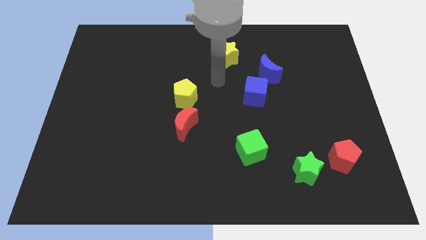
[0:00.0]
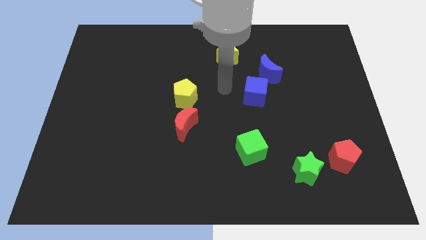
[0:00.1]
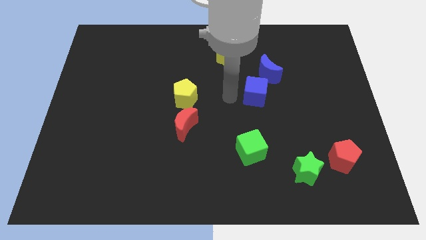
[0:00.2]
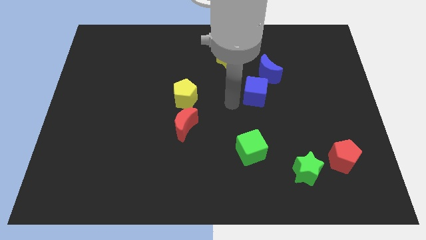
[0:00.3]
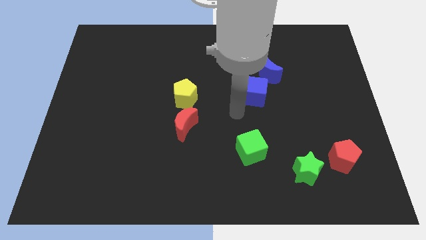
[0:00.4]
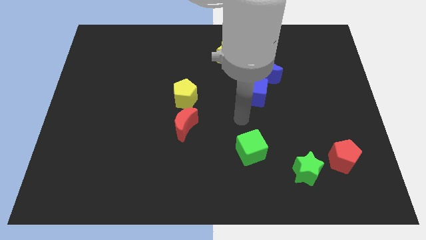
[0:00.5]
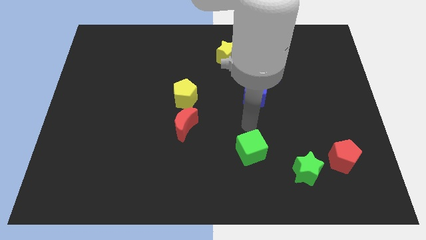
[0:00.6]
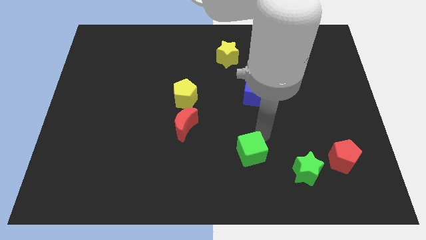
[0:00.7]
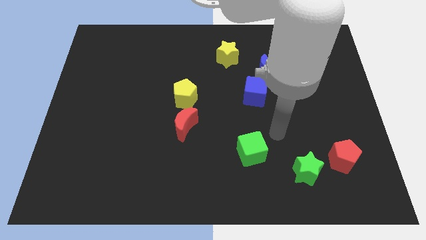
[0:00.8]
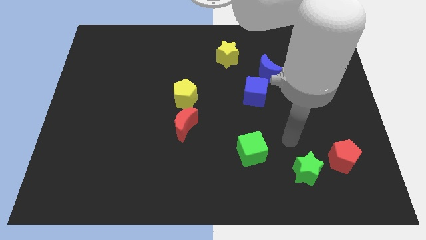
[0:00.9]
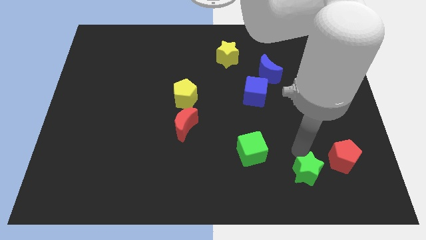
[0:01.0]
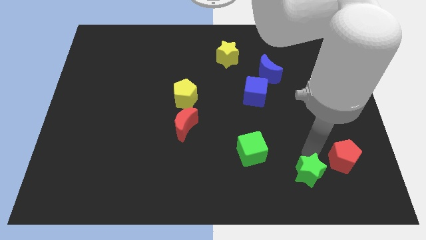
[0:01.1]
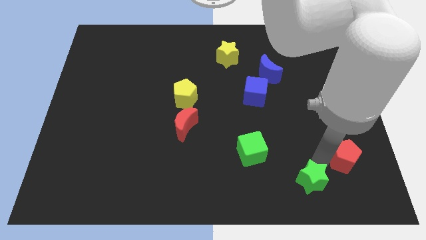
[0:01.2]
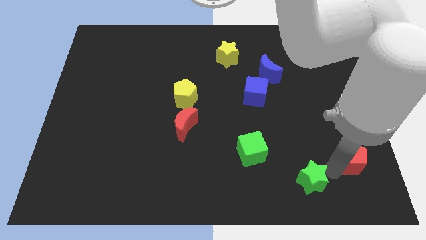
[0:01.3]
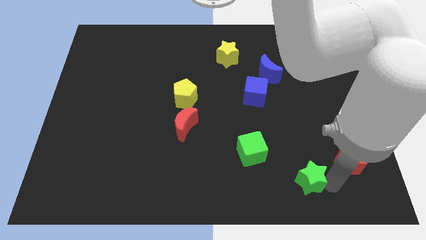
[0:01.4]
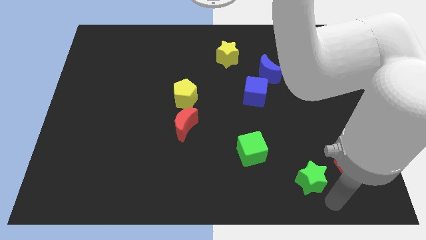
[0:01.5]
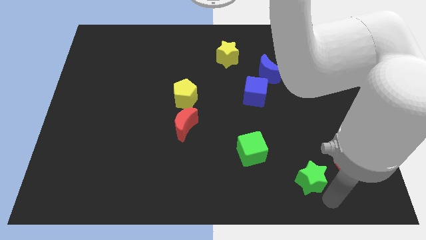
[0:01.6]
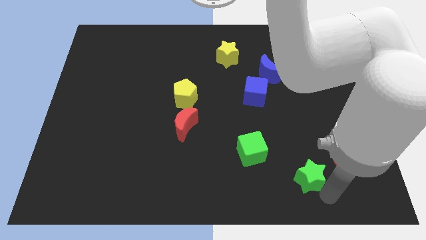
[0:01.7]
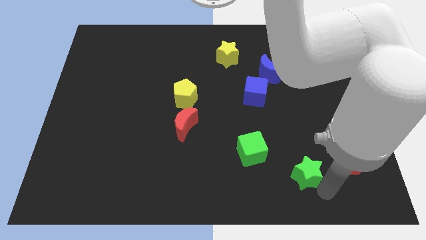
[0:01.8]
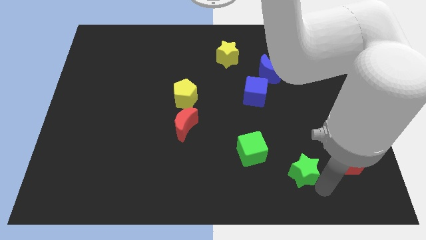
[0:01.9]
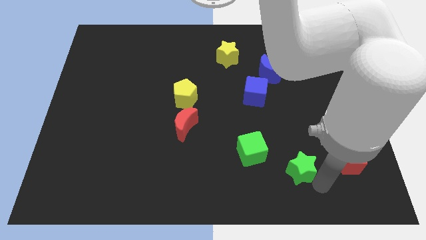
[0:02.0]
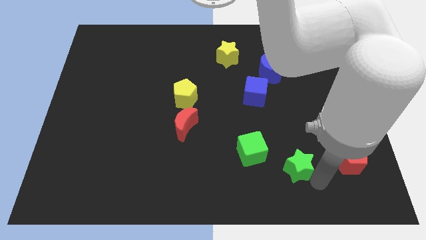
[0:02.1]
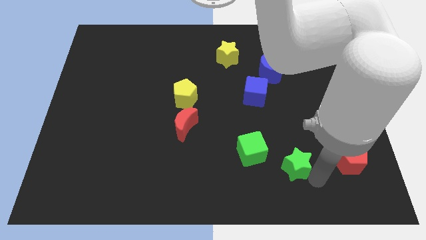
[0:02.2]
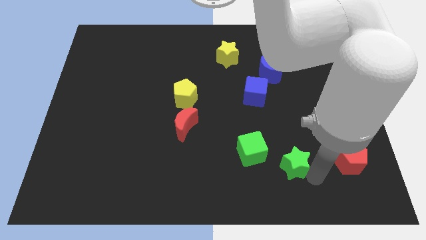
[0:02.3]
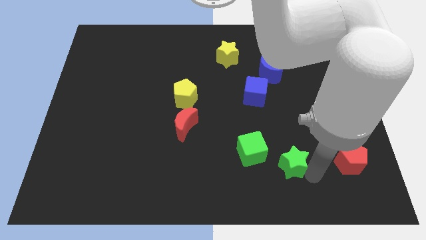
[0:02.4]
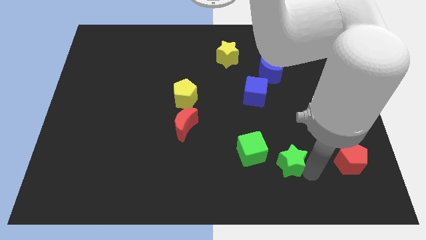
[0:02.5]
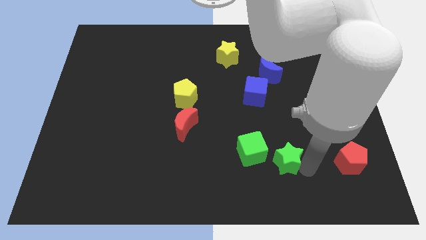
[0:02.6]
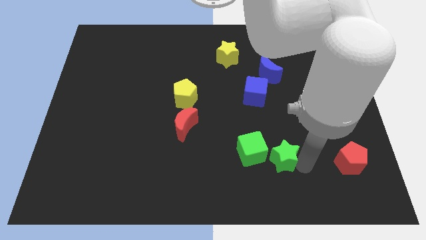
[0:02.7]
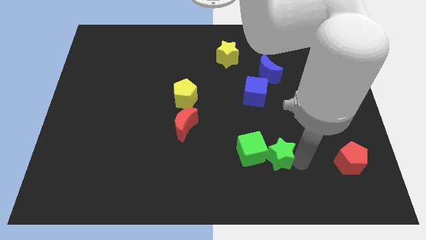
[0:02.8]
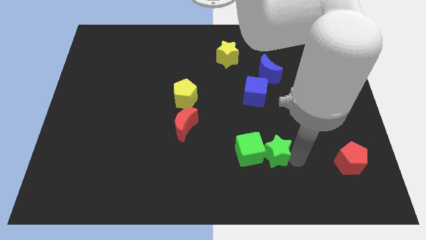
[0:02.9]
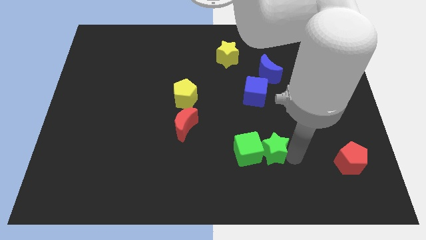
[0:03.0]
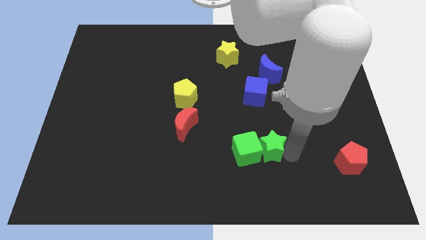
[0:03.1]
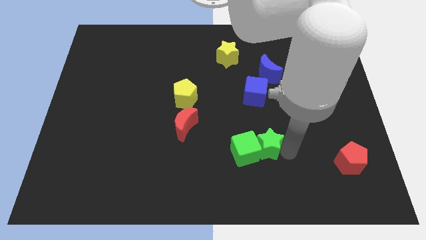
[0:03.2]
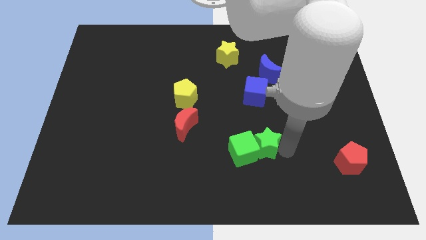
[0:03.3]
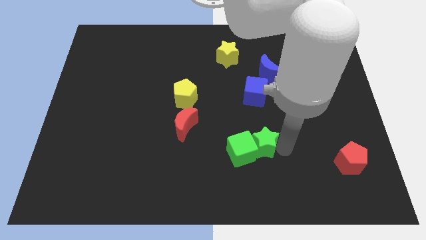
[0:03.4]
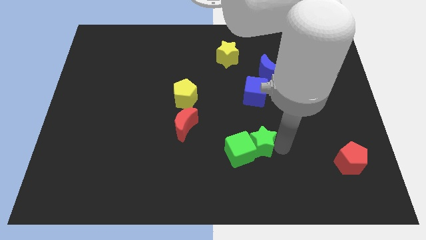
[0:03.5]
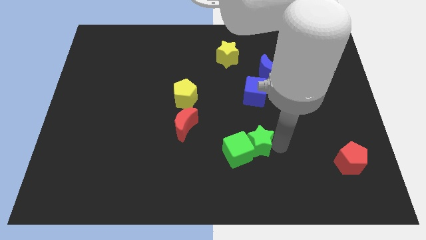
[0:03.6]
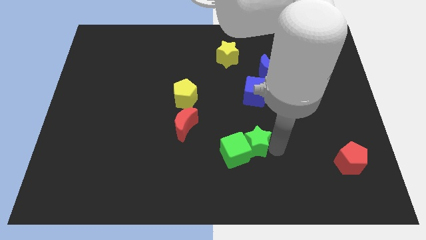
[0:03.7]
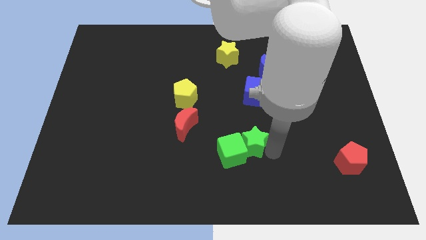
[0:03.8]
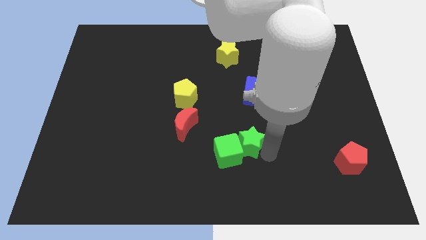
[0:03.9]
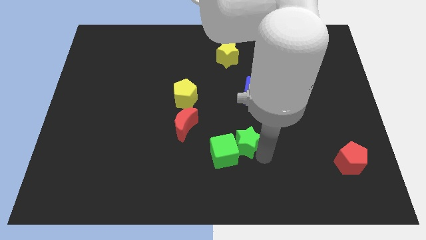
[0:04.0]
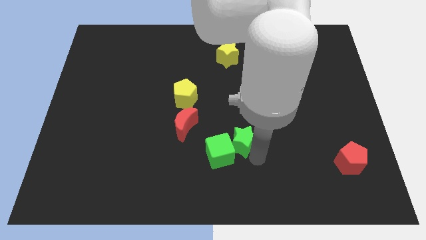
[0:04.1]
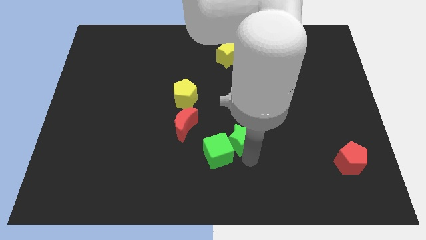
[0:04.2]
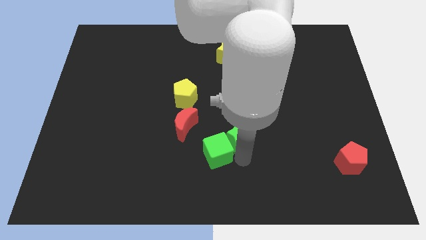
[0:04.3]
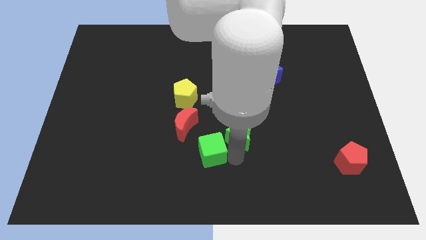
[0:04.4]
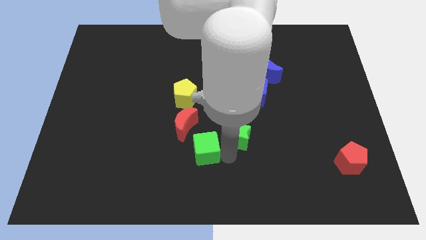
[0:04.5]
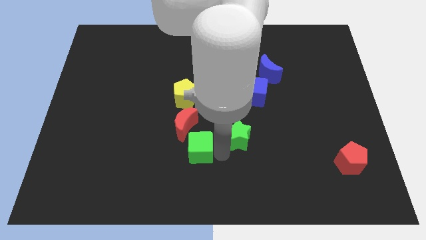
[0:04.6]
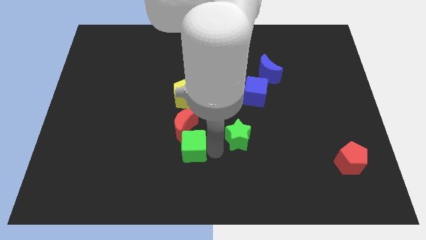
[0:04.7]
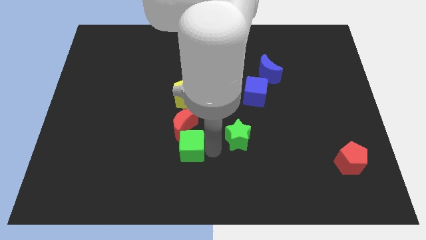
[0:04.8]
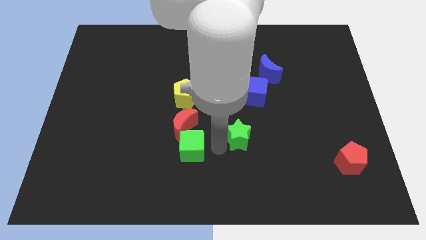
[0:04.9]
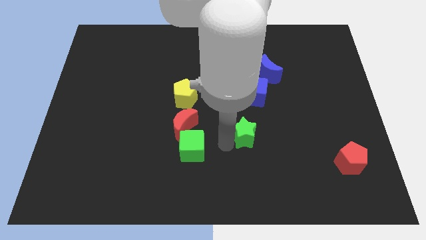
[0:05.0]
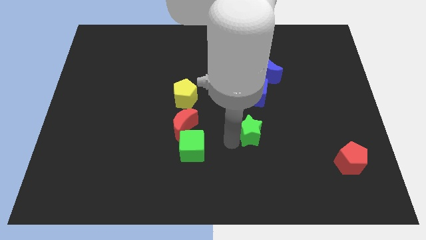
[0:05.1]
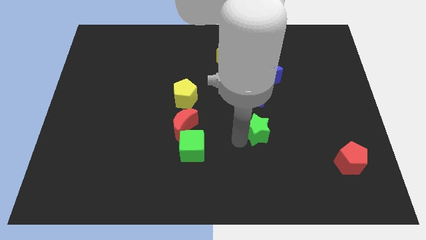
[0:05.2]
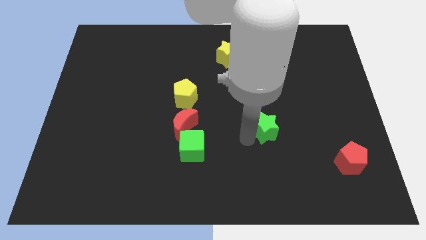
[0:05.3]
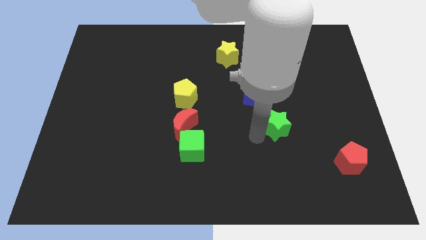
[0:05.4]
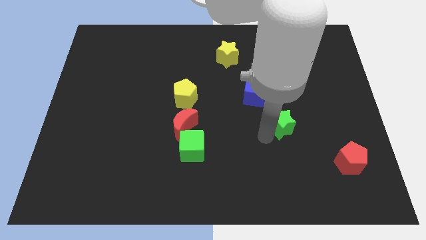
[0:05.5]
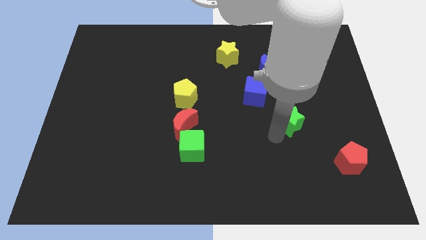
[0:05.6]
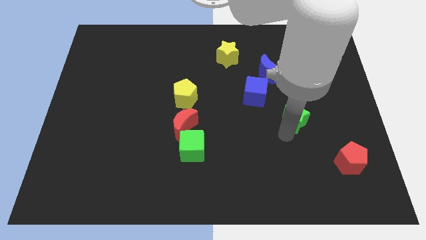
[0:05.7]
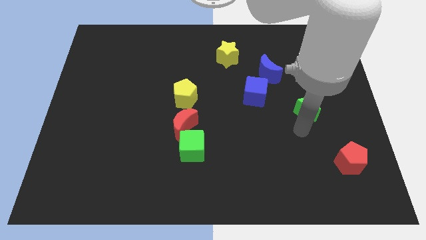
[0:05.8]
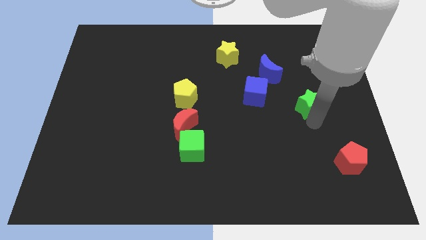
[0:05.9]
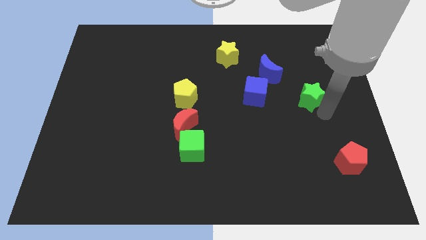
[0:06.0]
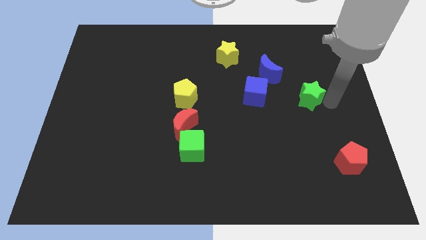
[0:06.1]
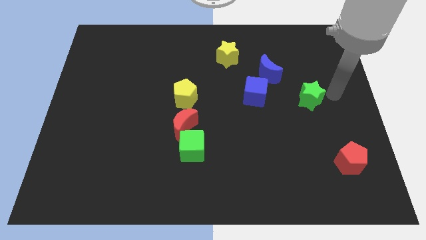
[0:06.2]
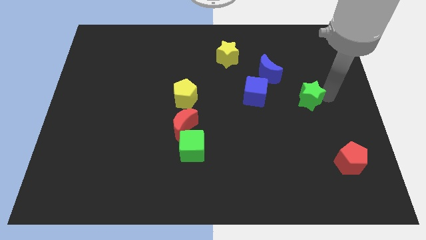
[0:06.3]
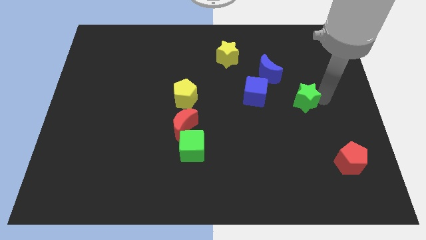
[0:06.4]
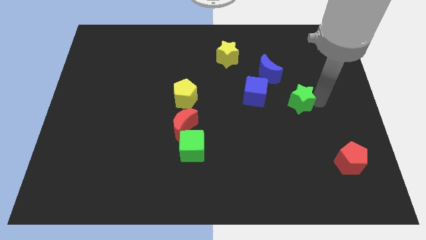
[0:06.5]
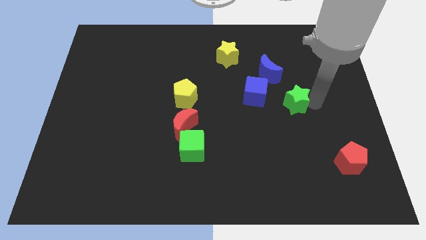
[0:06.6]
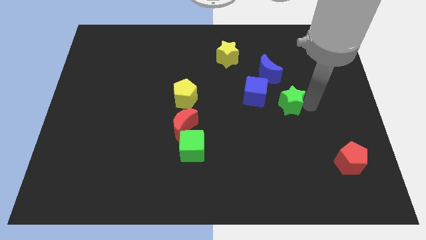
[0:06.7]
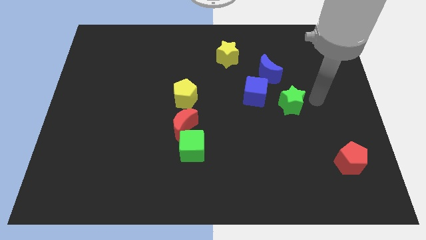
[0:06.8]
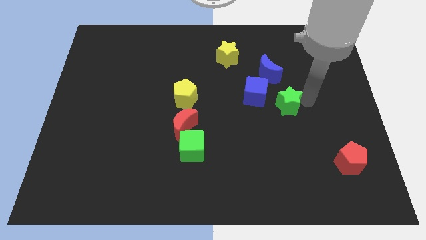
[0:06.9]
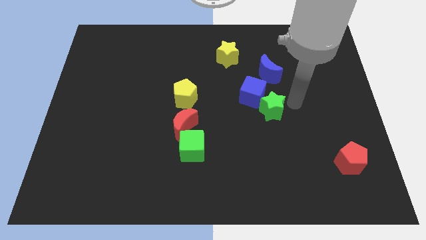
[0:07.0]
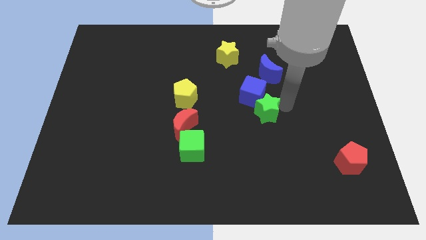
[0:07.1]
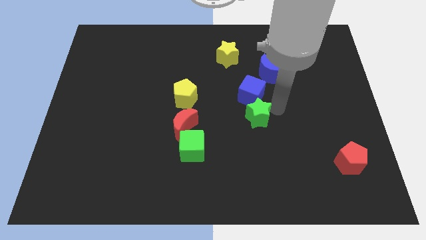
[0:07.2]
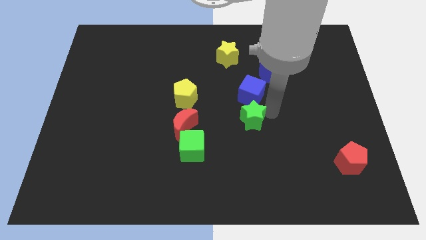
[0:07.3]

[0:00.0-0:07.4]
put the green star to the bottom left of the blue cube

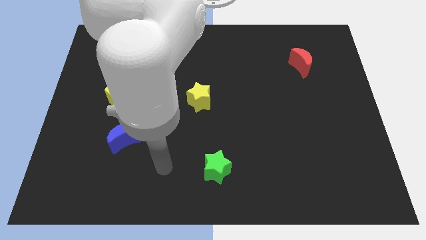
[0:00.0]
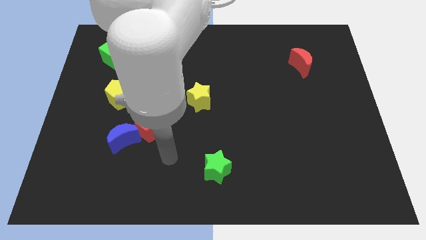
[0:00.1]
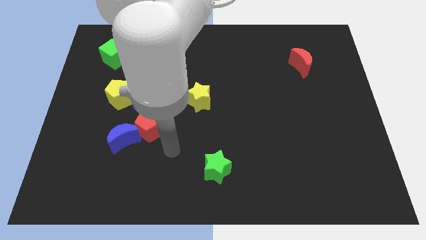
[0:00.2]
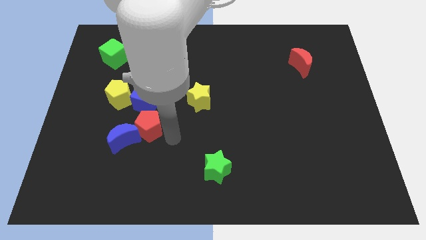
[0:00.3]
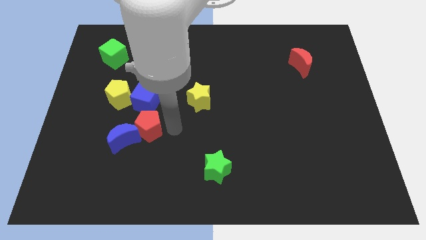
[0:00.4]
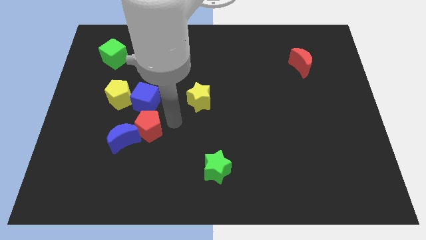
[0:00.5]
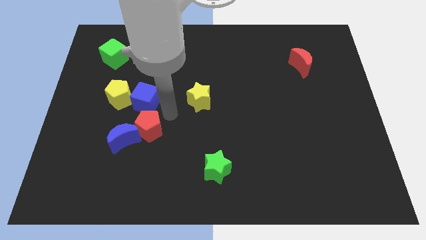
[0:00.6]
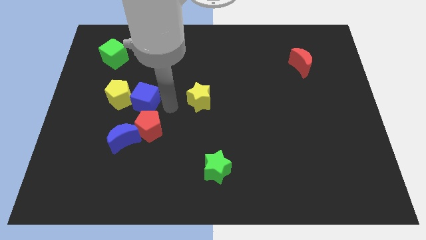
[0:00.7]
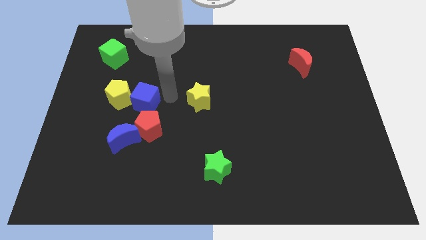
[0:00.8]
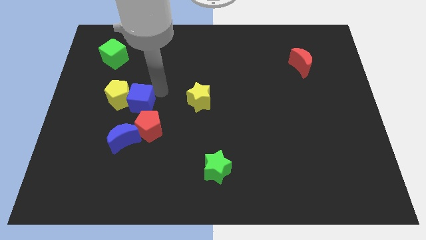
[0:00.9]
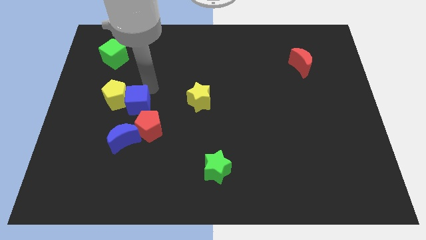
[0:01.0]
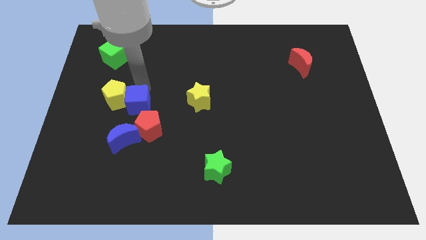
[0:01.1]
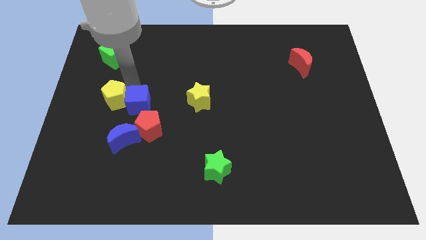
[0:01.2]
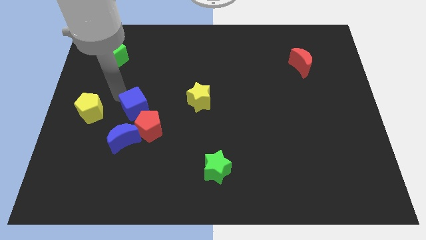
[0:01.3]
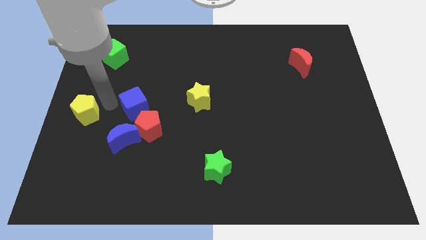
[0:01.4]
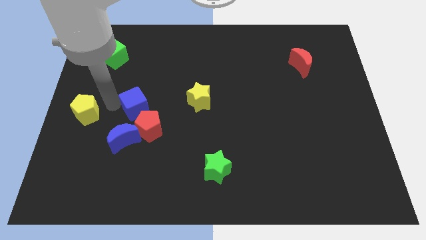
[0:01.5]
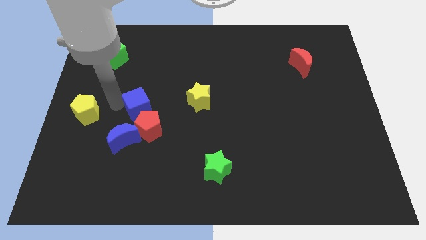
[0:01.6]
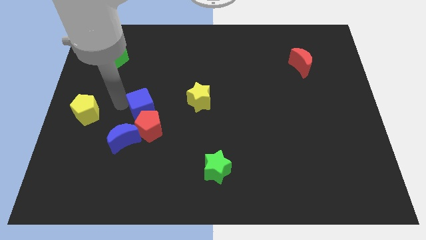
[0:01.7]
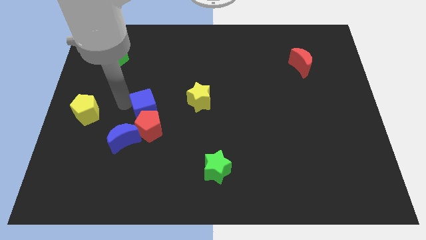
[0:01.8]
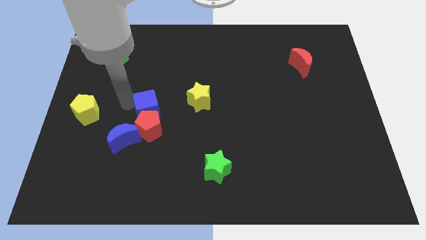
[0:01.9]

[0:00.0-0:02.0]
put the blue cube to the top right of the red pentagon
